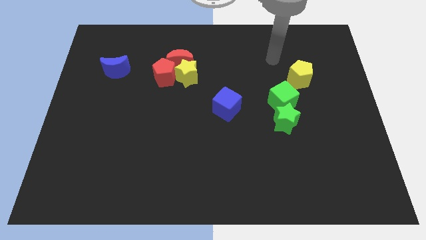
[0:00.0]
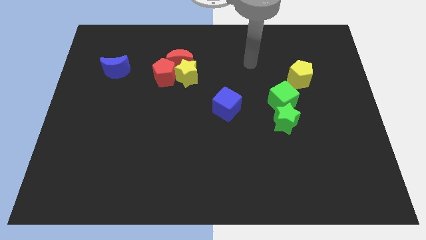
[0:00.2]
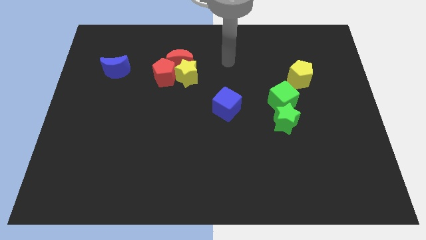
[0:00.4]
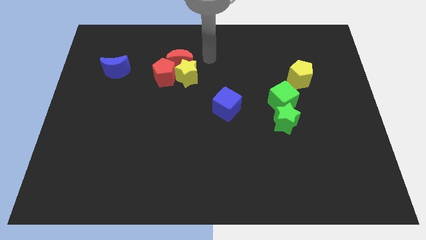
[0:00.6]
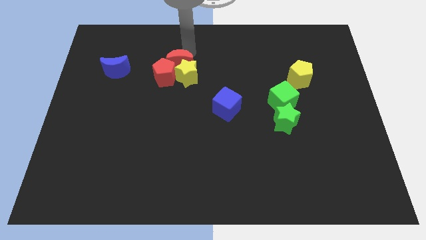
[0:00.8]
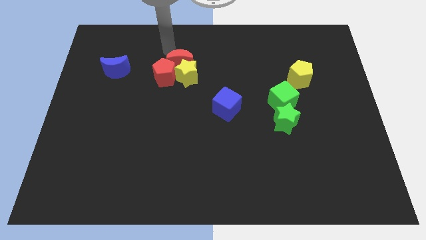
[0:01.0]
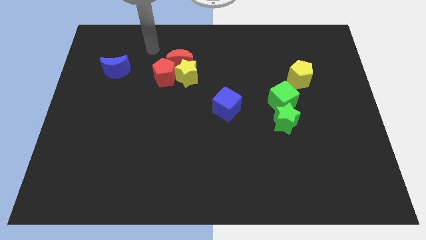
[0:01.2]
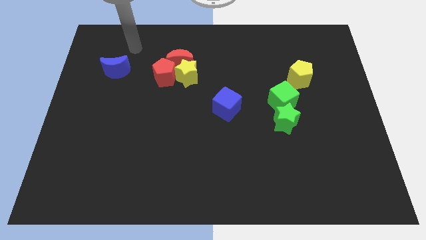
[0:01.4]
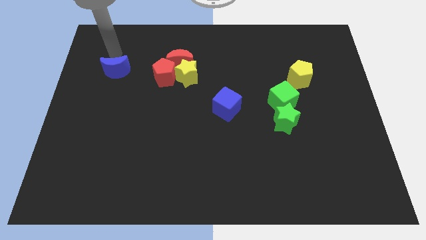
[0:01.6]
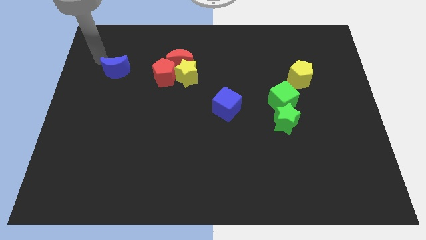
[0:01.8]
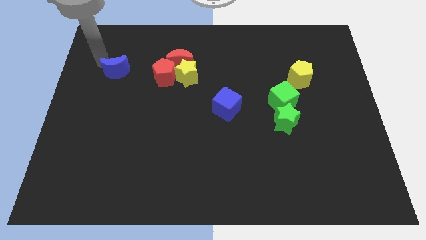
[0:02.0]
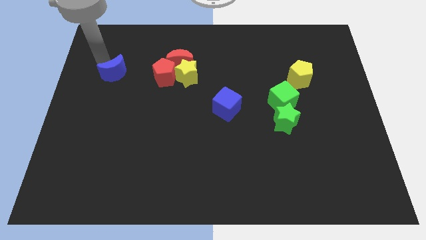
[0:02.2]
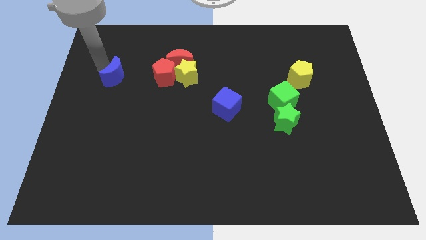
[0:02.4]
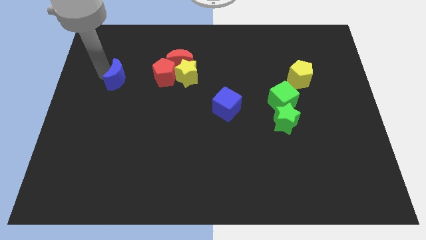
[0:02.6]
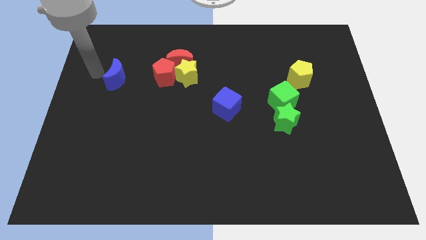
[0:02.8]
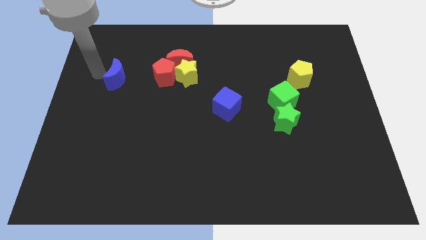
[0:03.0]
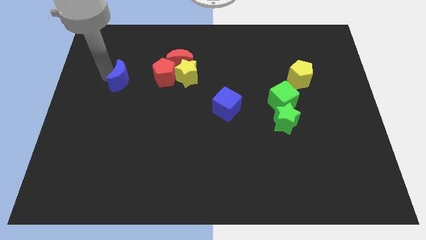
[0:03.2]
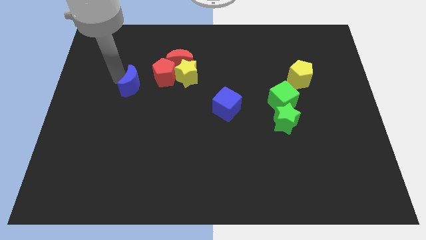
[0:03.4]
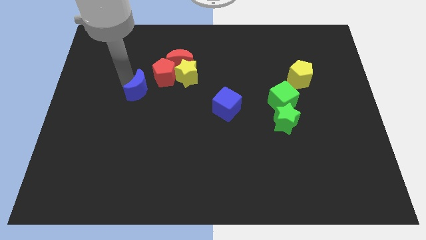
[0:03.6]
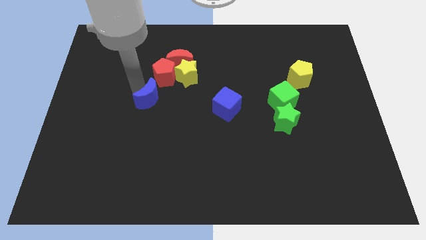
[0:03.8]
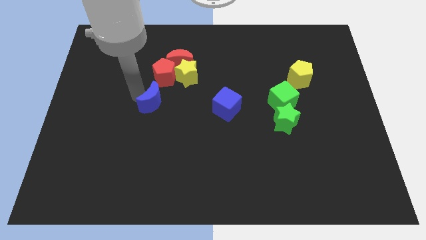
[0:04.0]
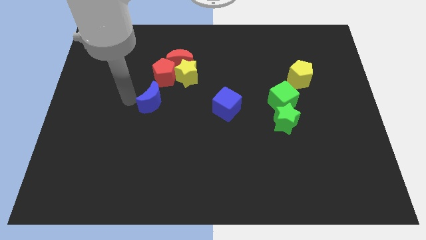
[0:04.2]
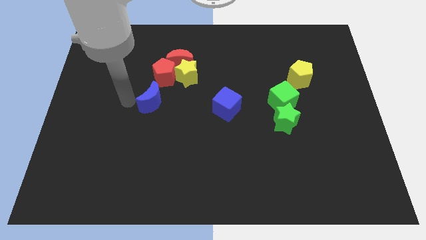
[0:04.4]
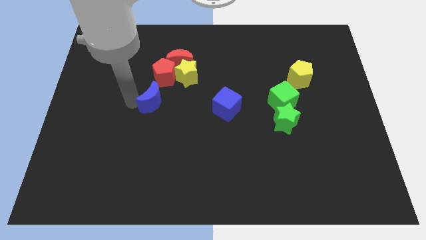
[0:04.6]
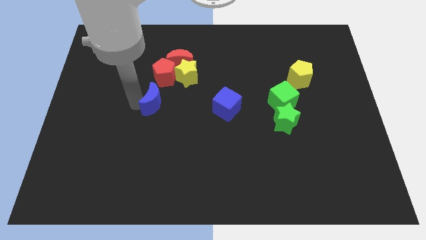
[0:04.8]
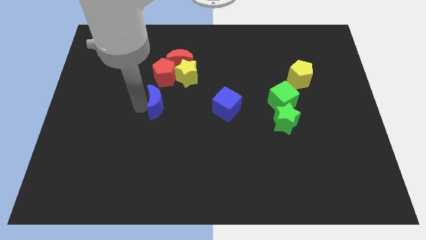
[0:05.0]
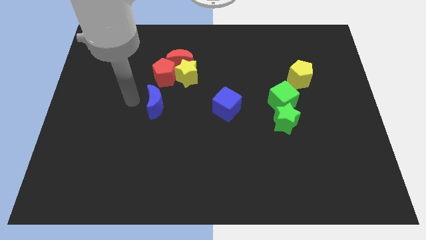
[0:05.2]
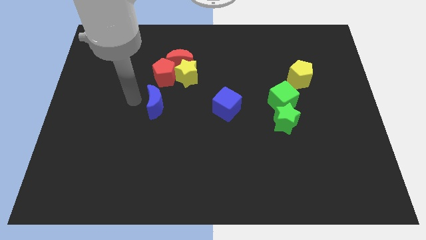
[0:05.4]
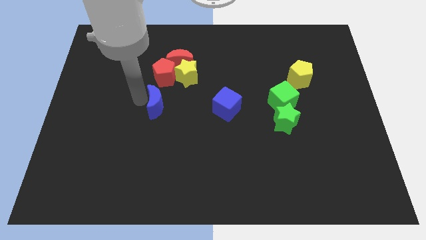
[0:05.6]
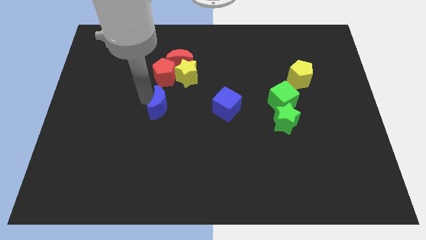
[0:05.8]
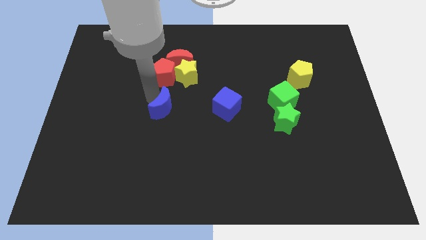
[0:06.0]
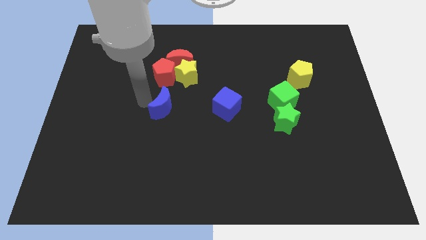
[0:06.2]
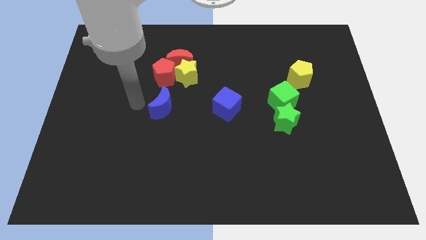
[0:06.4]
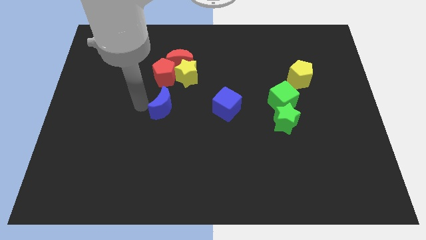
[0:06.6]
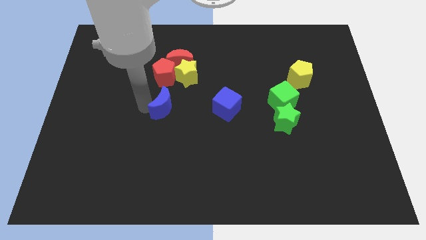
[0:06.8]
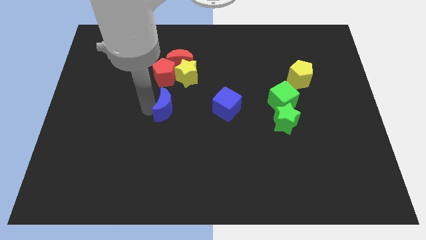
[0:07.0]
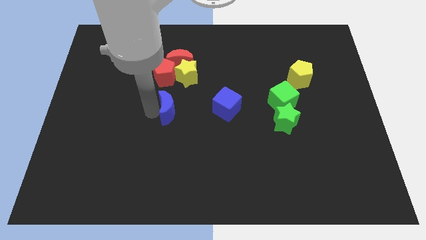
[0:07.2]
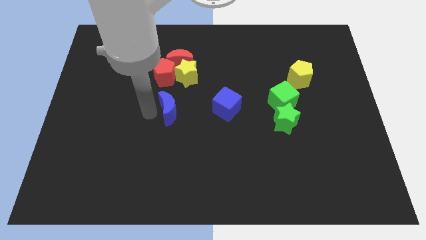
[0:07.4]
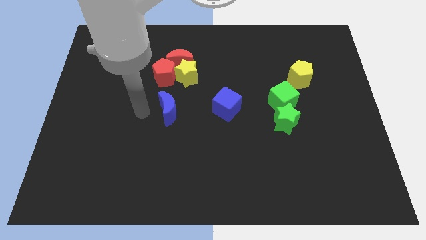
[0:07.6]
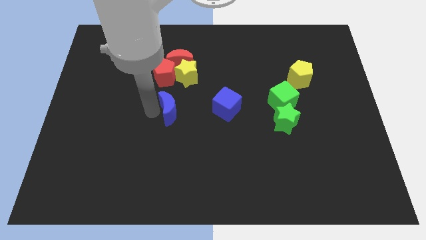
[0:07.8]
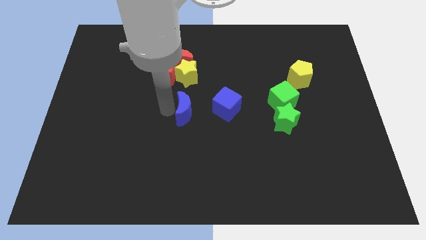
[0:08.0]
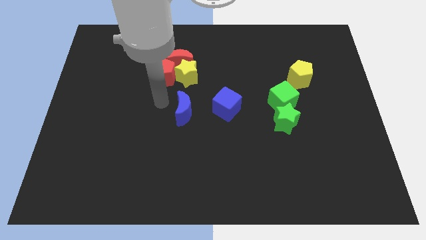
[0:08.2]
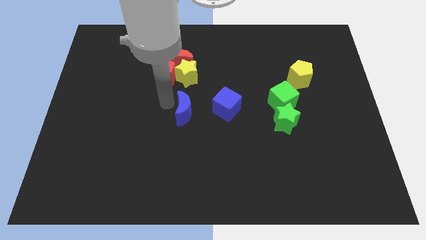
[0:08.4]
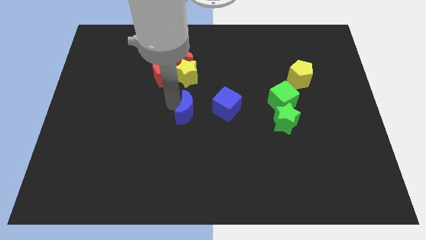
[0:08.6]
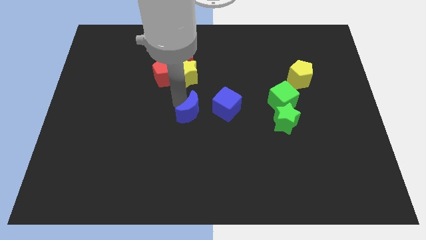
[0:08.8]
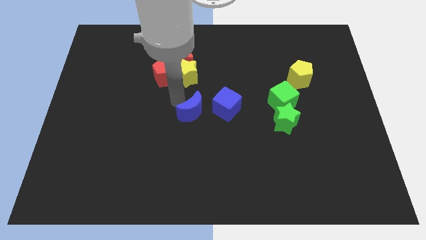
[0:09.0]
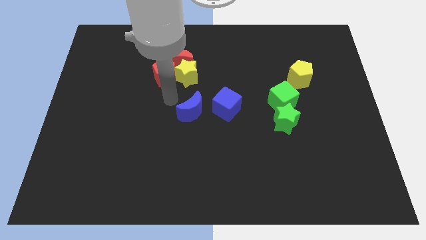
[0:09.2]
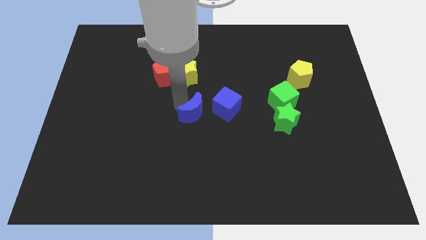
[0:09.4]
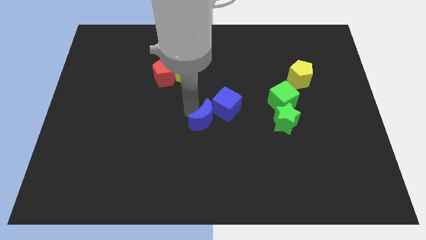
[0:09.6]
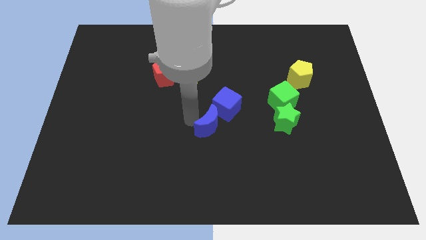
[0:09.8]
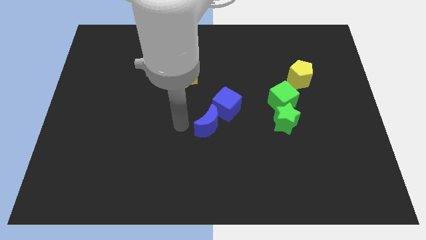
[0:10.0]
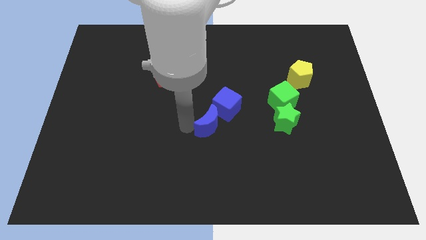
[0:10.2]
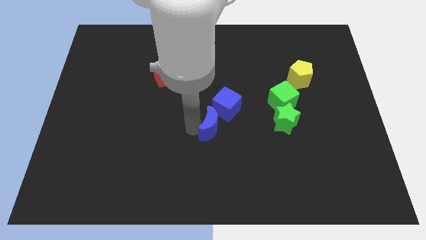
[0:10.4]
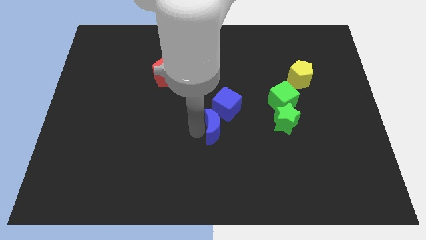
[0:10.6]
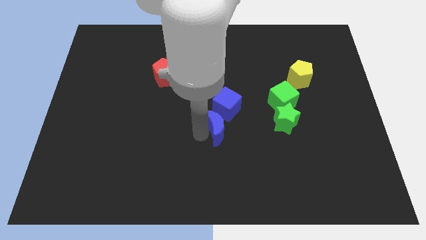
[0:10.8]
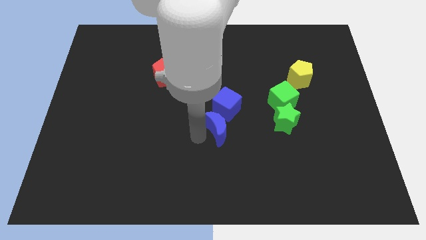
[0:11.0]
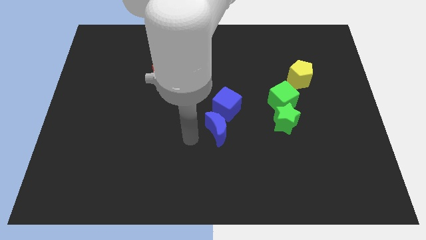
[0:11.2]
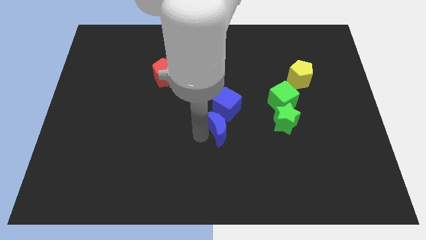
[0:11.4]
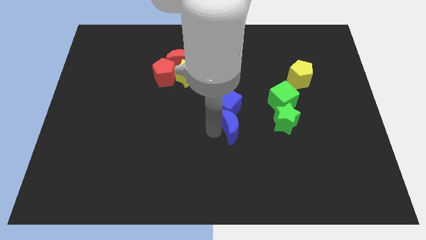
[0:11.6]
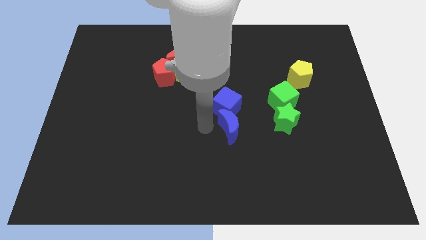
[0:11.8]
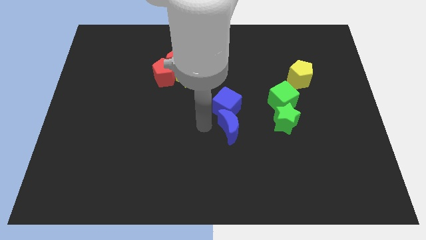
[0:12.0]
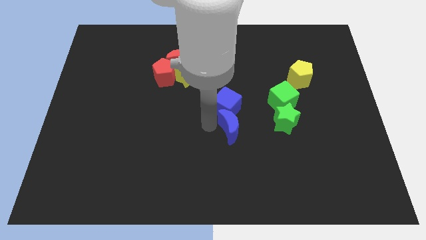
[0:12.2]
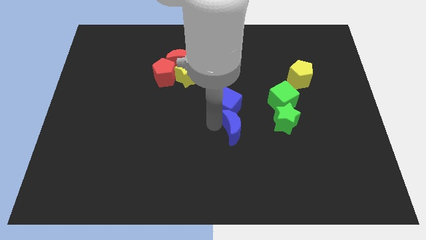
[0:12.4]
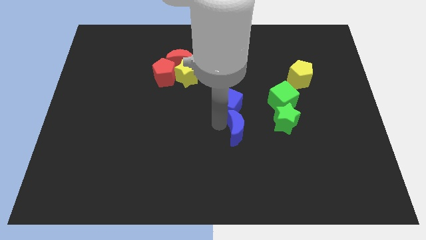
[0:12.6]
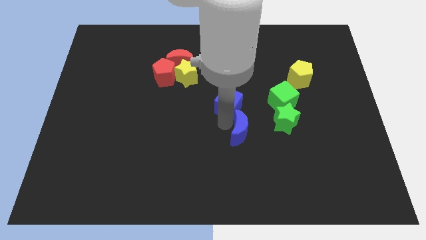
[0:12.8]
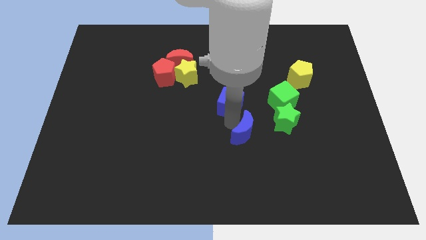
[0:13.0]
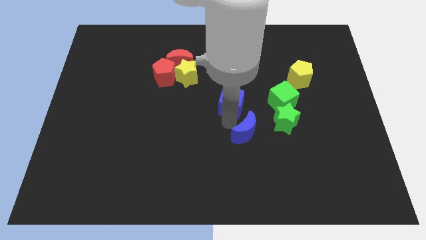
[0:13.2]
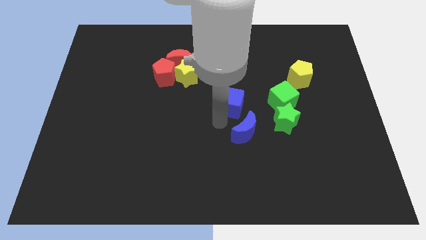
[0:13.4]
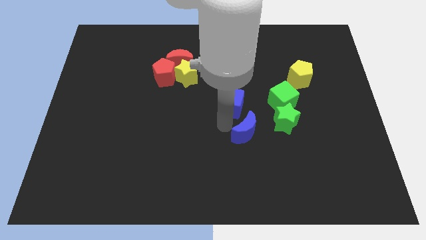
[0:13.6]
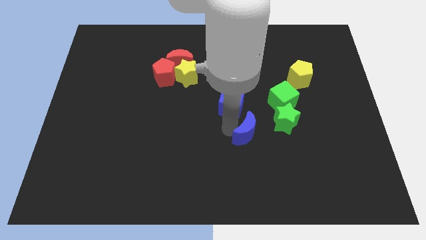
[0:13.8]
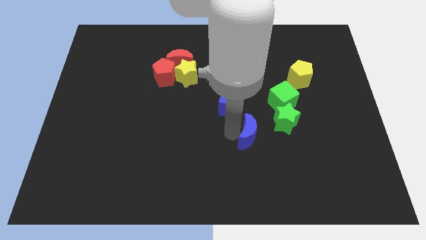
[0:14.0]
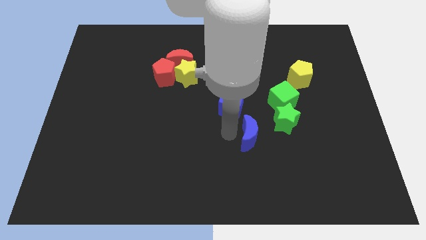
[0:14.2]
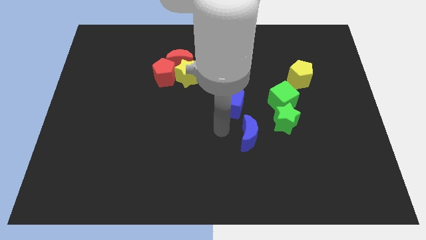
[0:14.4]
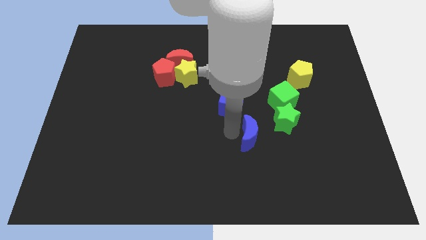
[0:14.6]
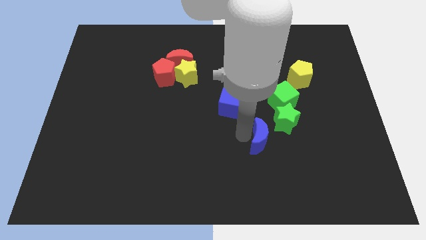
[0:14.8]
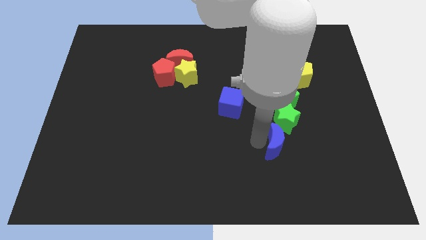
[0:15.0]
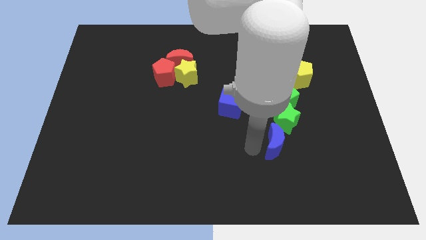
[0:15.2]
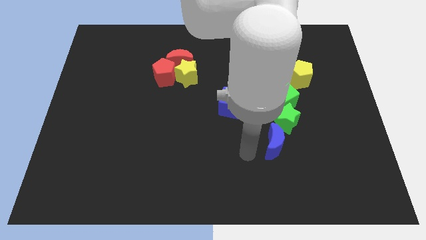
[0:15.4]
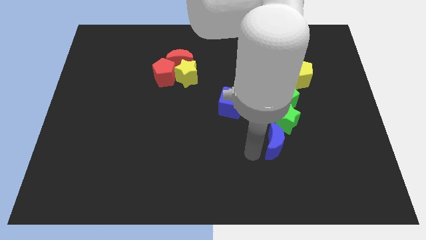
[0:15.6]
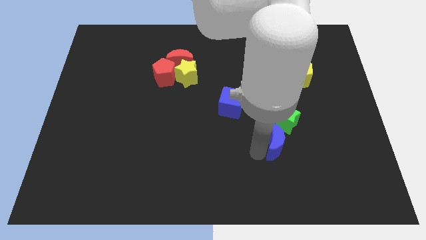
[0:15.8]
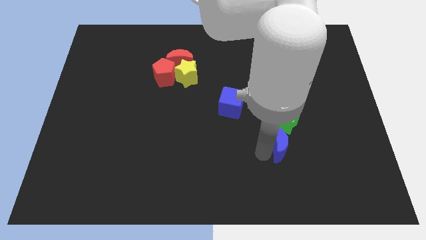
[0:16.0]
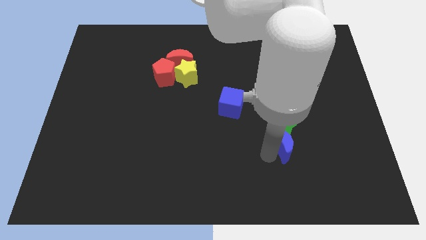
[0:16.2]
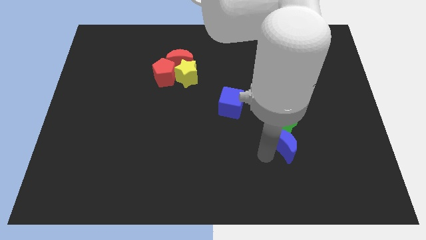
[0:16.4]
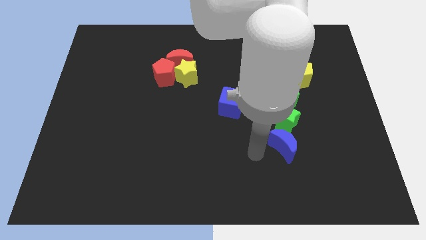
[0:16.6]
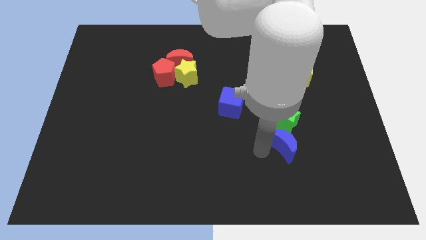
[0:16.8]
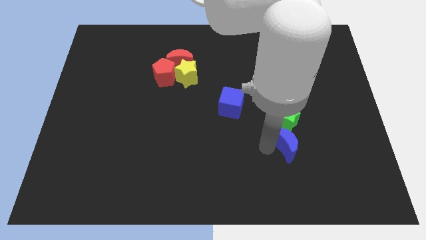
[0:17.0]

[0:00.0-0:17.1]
slide the blue moon to the bottom right side of the green star
